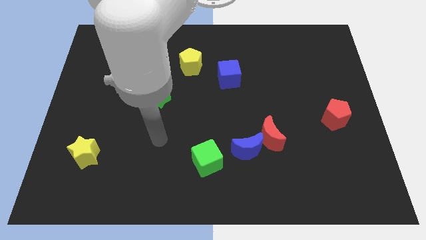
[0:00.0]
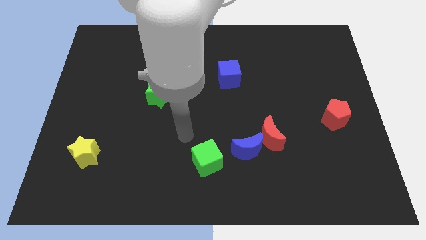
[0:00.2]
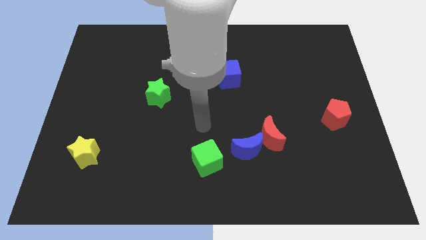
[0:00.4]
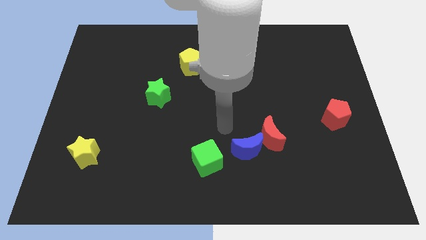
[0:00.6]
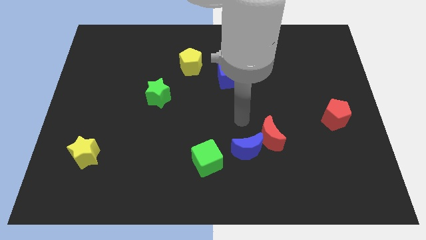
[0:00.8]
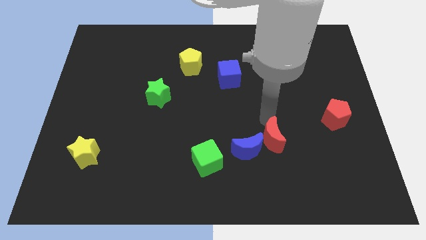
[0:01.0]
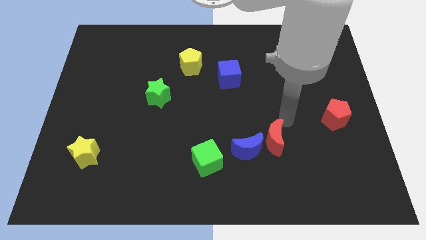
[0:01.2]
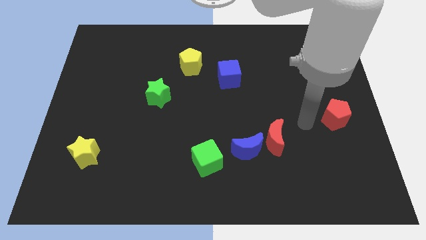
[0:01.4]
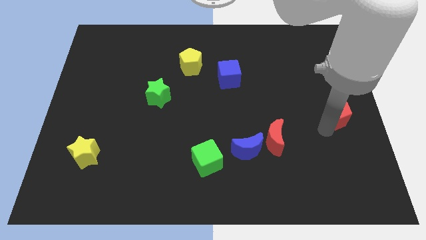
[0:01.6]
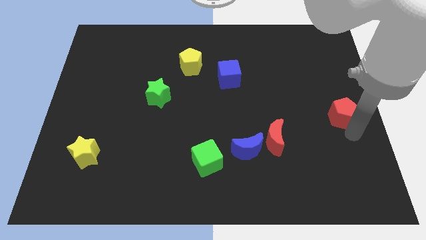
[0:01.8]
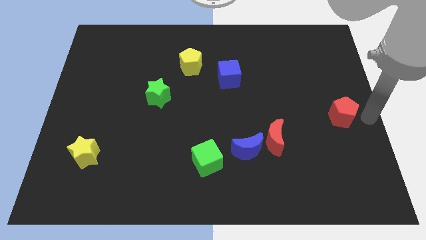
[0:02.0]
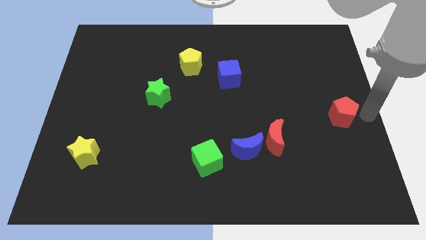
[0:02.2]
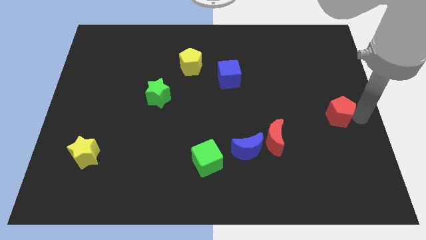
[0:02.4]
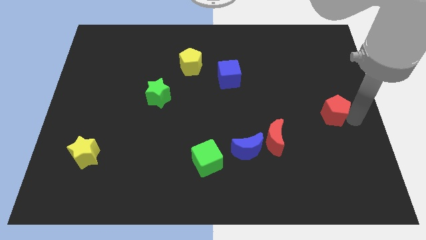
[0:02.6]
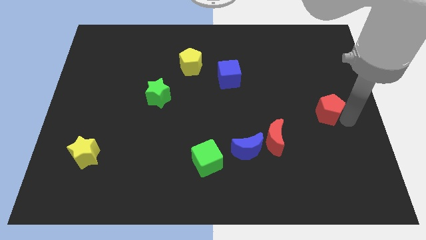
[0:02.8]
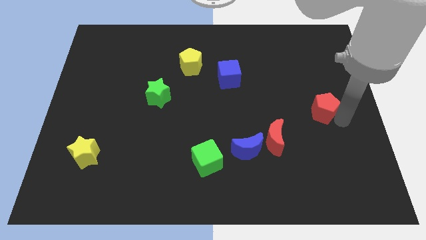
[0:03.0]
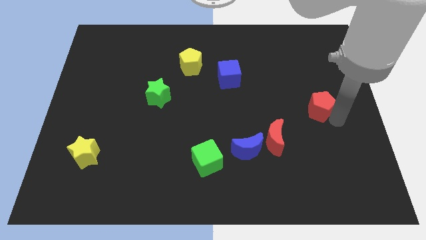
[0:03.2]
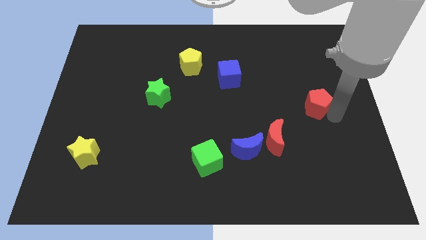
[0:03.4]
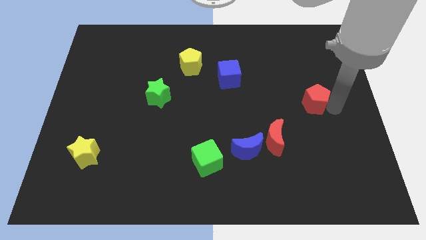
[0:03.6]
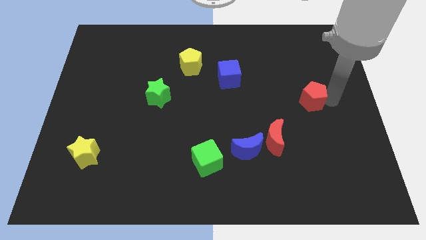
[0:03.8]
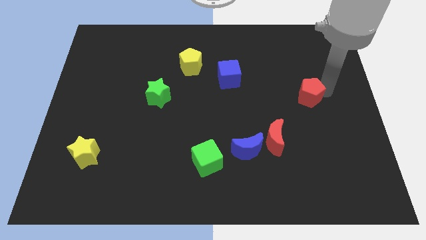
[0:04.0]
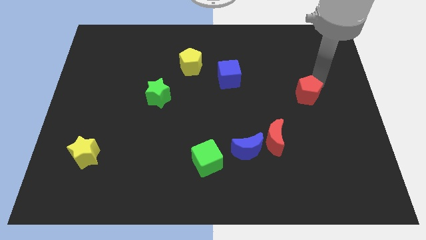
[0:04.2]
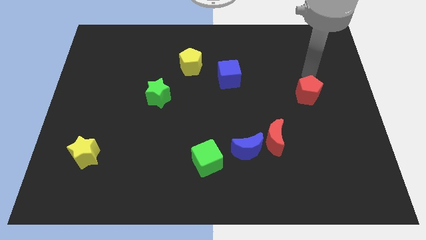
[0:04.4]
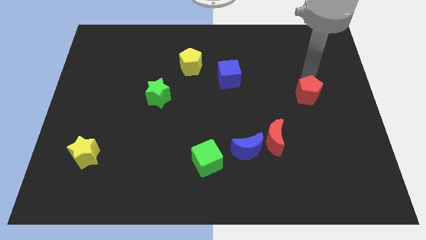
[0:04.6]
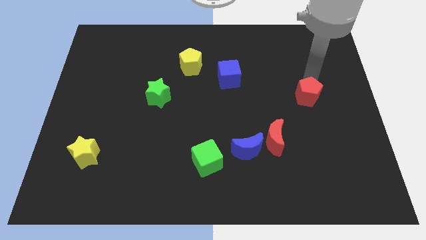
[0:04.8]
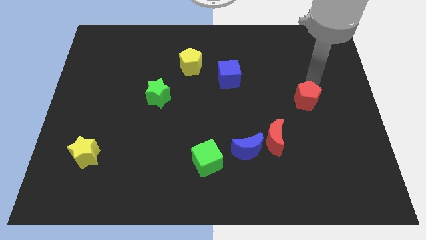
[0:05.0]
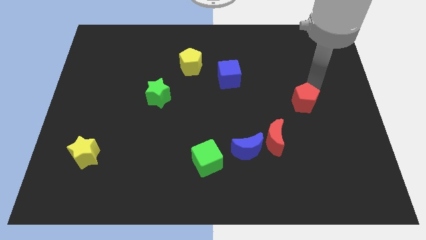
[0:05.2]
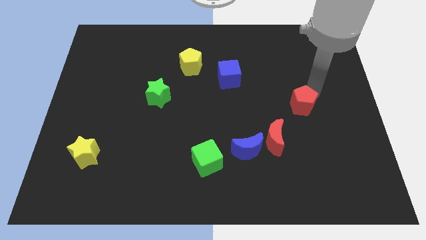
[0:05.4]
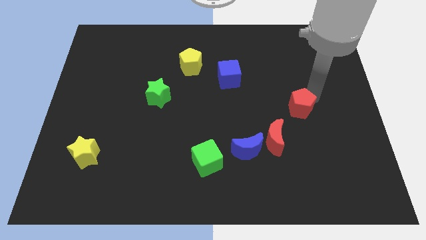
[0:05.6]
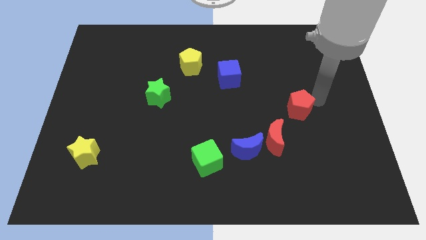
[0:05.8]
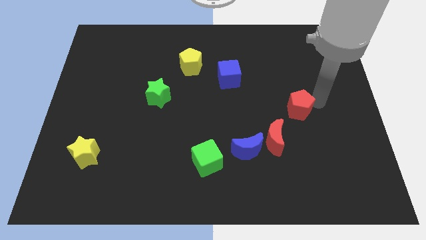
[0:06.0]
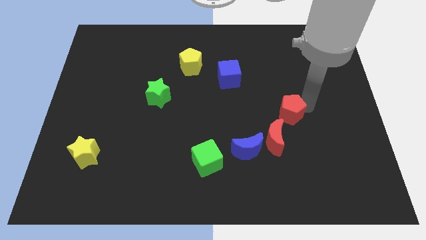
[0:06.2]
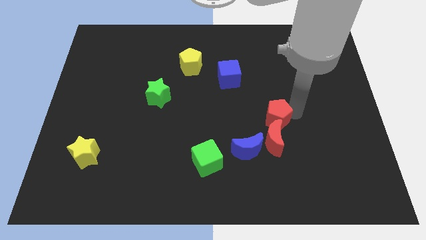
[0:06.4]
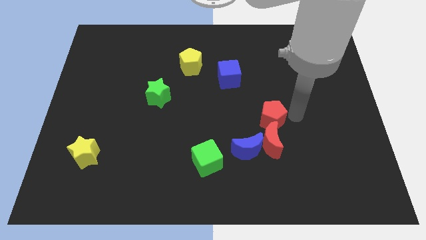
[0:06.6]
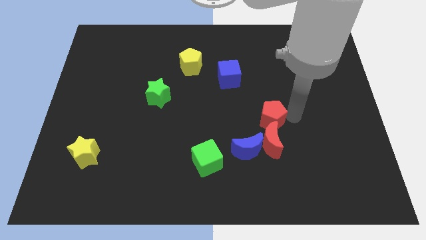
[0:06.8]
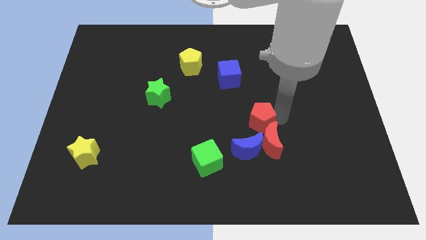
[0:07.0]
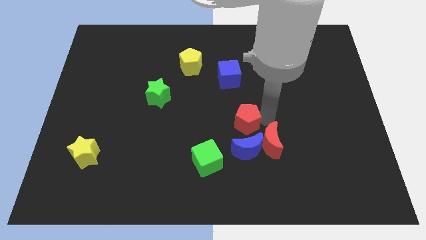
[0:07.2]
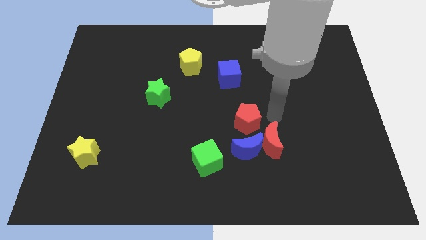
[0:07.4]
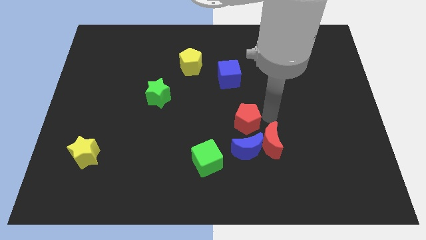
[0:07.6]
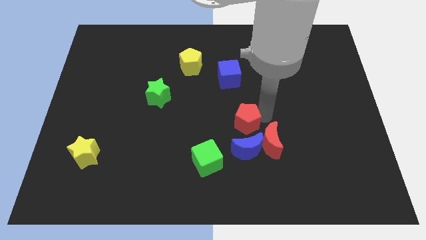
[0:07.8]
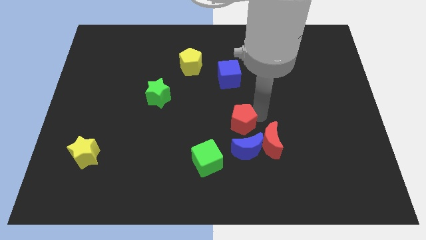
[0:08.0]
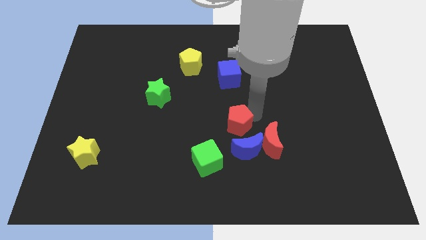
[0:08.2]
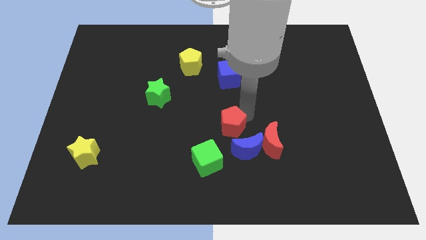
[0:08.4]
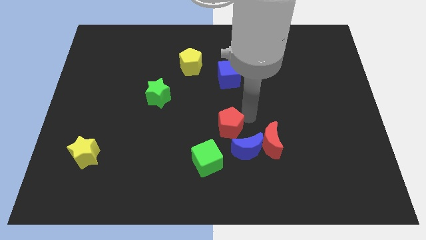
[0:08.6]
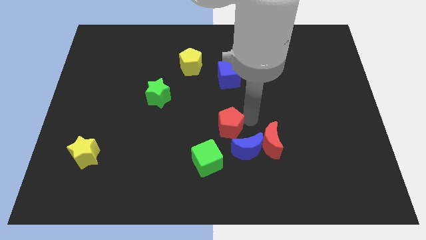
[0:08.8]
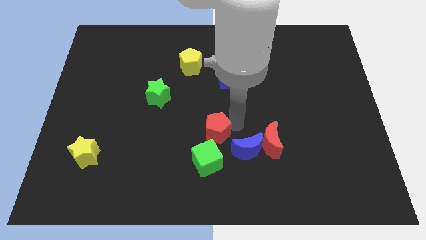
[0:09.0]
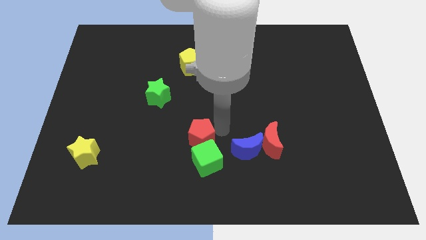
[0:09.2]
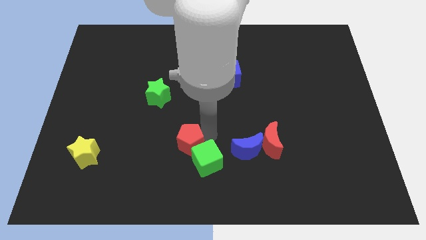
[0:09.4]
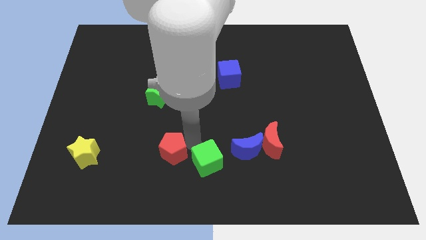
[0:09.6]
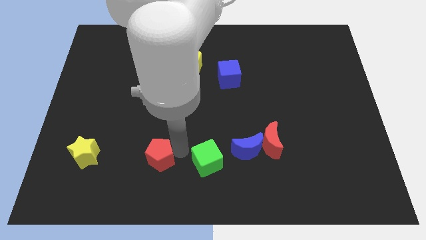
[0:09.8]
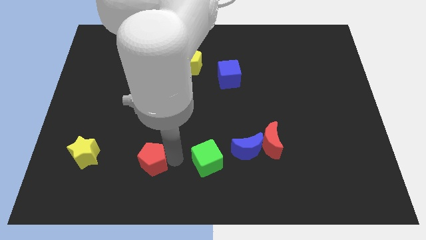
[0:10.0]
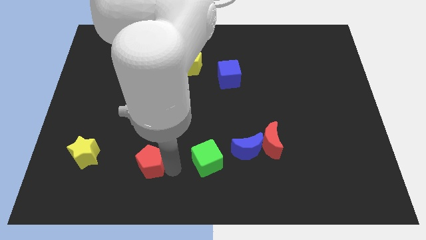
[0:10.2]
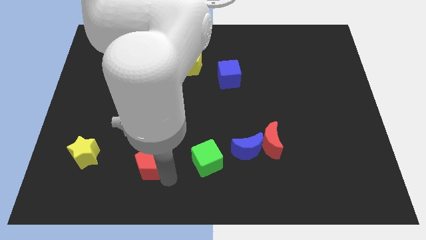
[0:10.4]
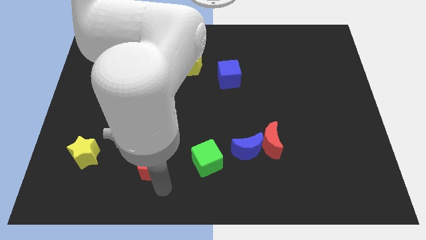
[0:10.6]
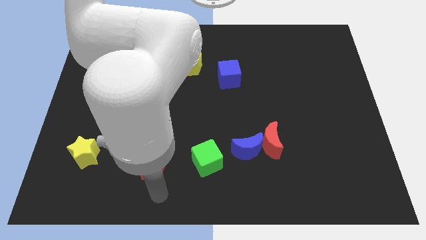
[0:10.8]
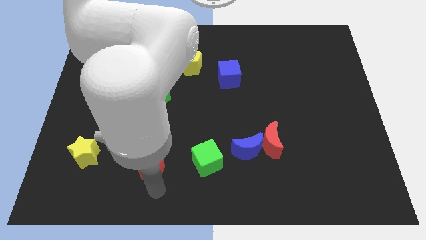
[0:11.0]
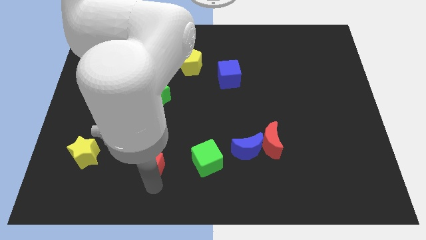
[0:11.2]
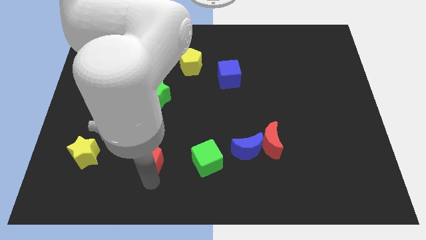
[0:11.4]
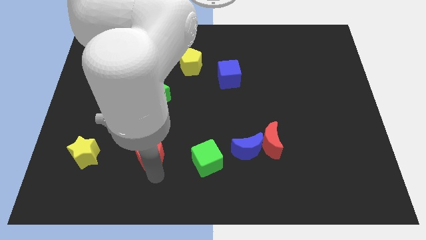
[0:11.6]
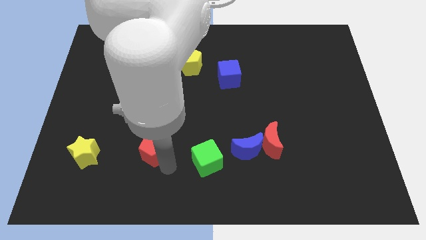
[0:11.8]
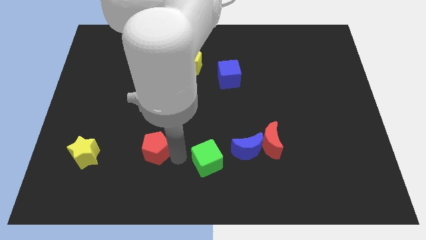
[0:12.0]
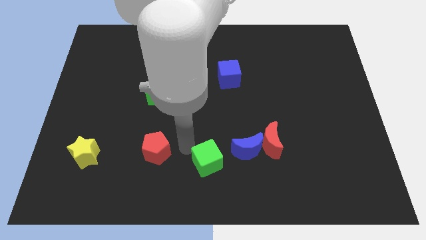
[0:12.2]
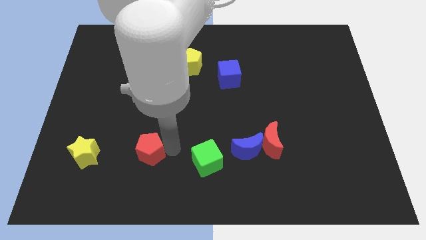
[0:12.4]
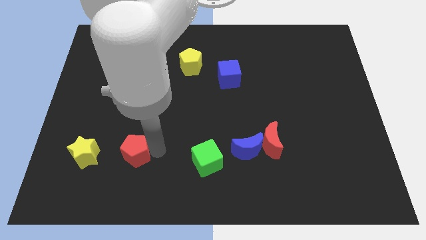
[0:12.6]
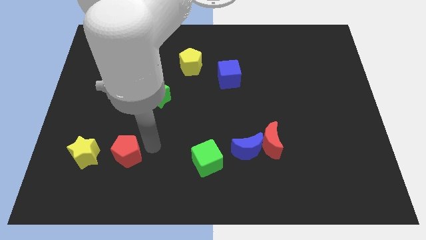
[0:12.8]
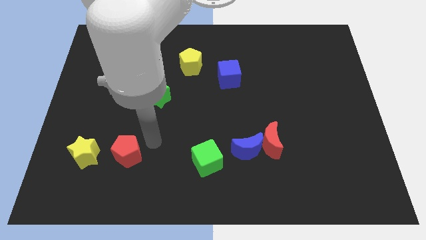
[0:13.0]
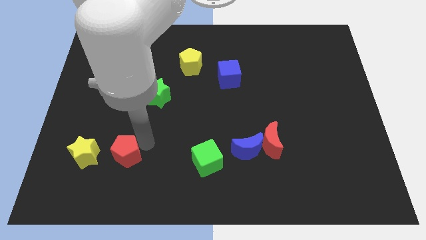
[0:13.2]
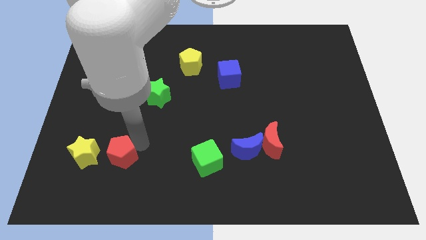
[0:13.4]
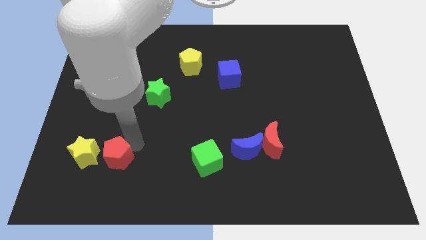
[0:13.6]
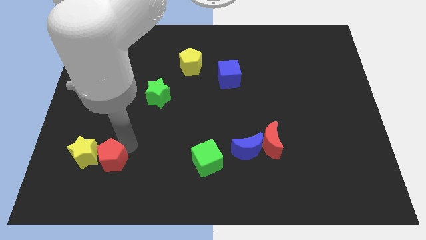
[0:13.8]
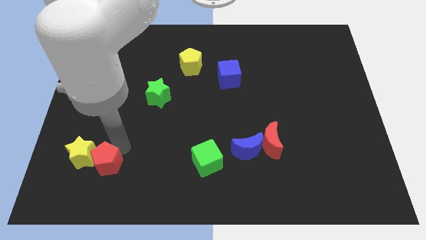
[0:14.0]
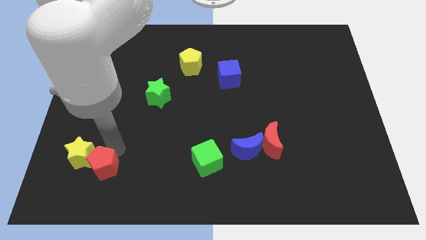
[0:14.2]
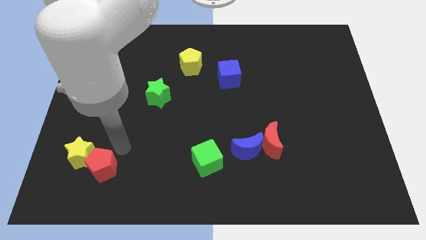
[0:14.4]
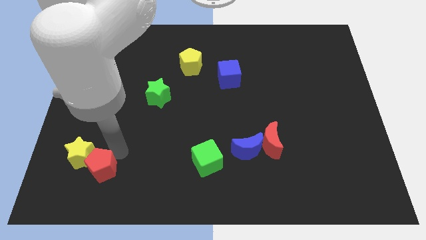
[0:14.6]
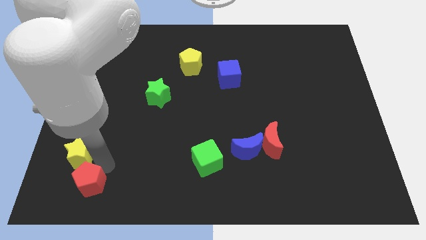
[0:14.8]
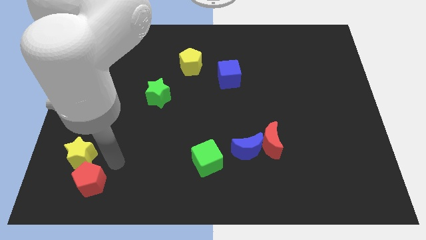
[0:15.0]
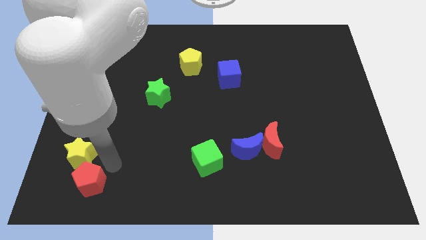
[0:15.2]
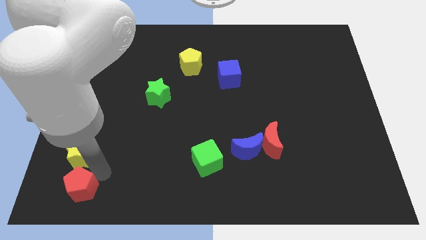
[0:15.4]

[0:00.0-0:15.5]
move the red pentagon to the lower left corner
